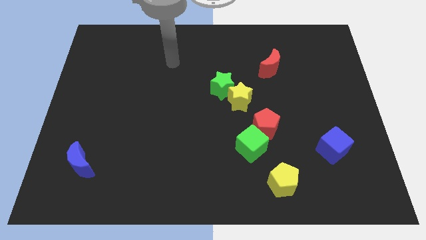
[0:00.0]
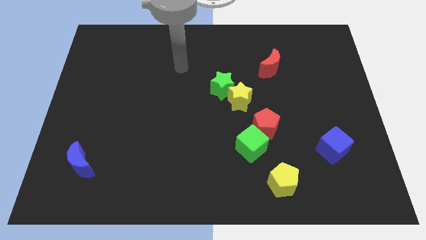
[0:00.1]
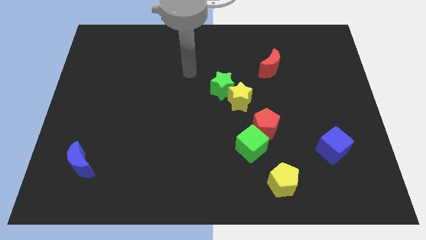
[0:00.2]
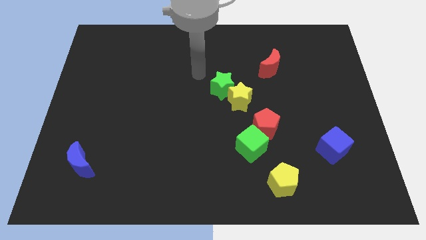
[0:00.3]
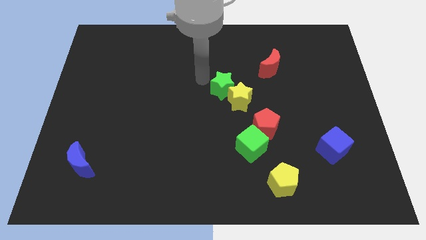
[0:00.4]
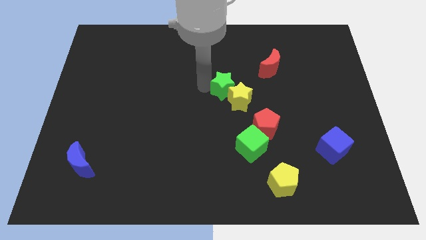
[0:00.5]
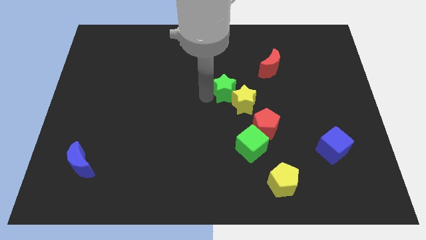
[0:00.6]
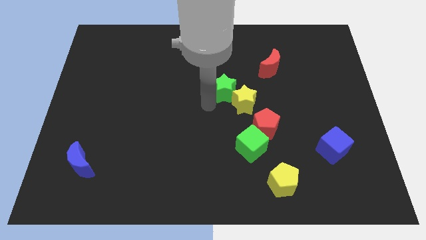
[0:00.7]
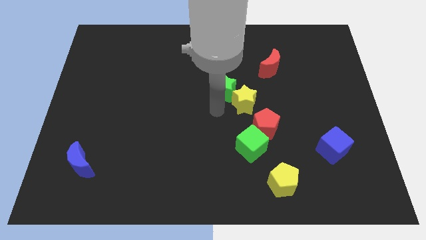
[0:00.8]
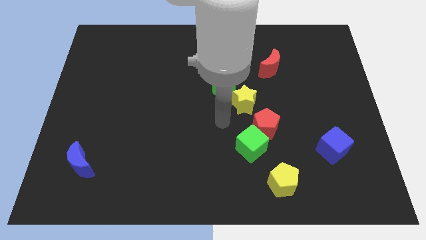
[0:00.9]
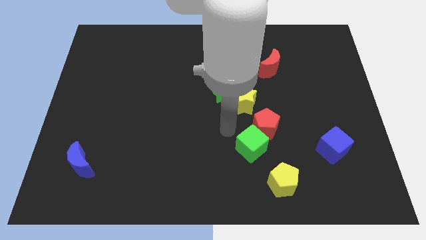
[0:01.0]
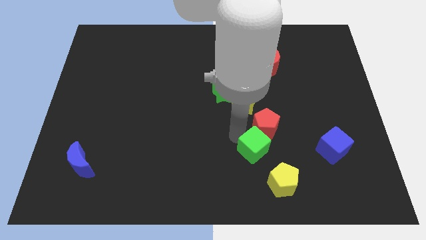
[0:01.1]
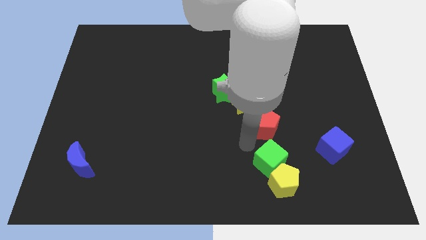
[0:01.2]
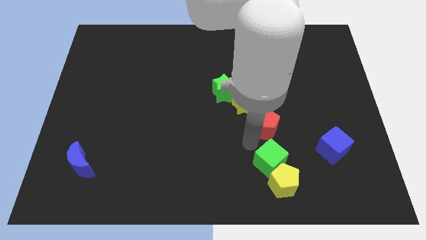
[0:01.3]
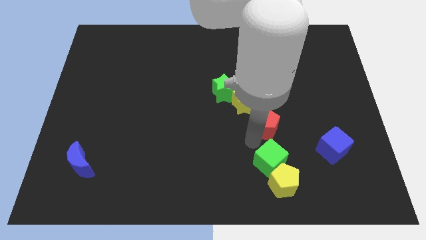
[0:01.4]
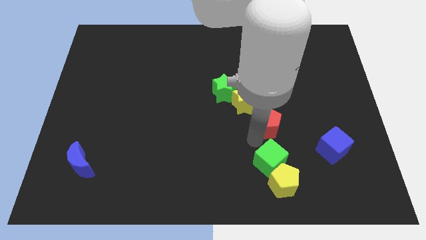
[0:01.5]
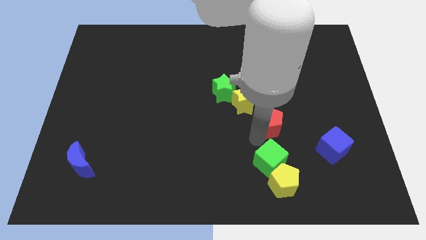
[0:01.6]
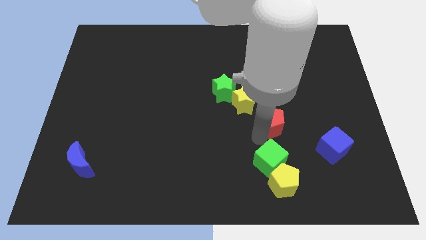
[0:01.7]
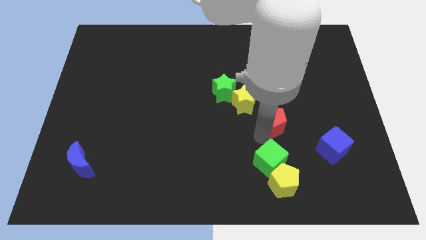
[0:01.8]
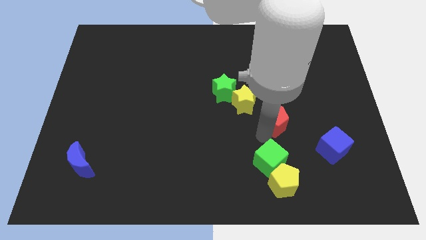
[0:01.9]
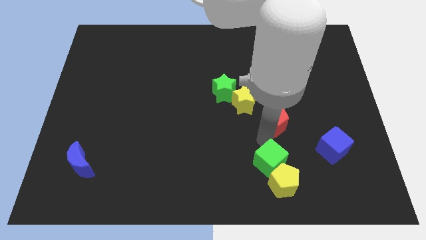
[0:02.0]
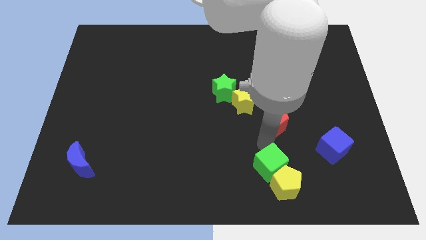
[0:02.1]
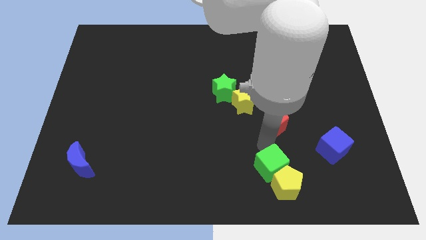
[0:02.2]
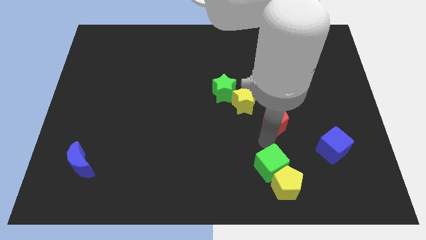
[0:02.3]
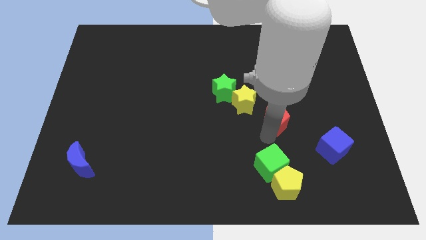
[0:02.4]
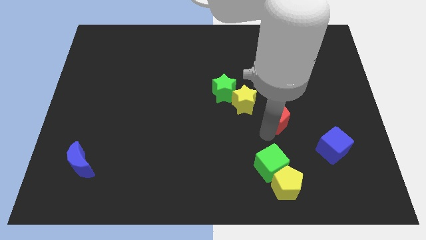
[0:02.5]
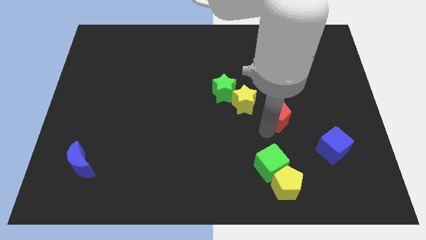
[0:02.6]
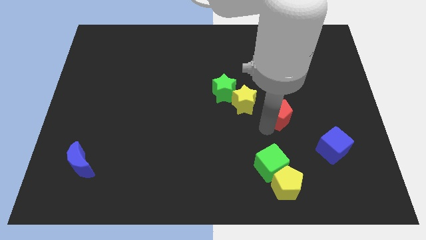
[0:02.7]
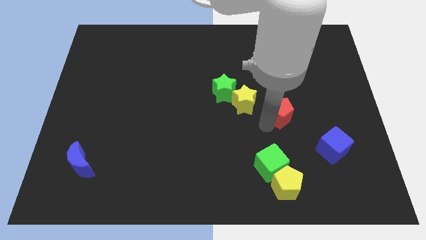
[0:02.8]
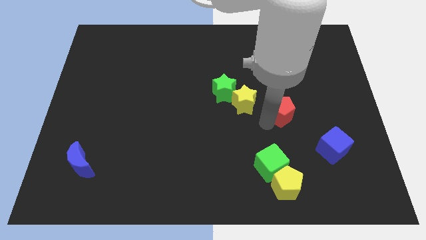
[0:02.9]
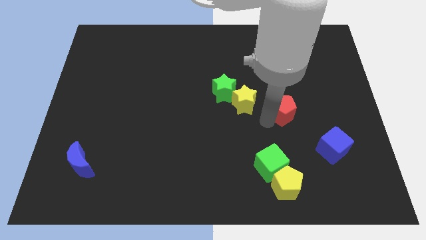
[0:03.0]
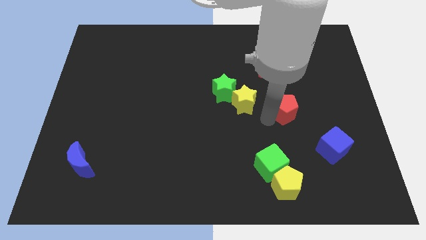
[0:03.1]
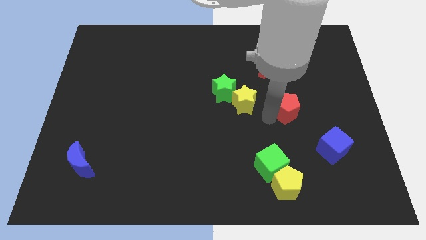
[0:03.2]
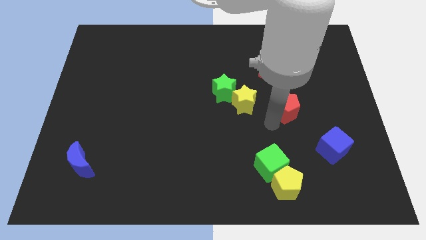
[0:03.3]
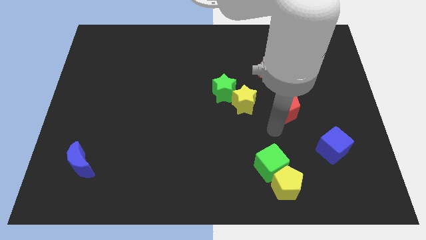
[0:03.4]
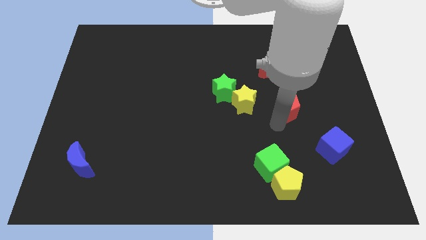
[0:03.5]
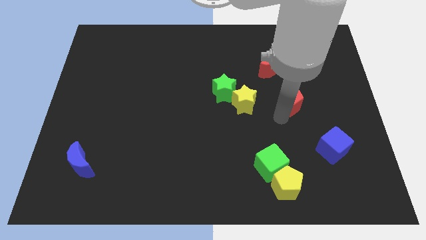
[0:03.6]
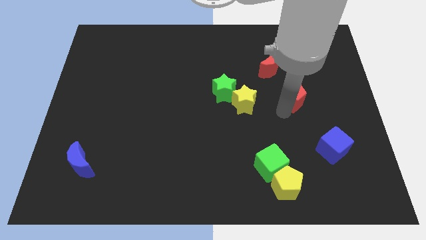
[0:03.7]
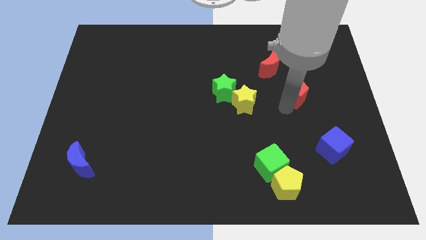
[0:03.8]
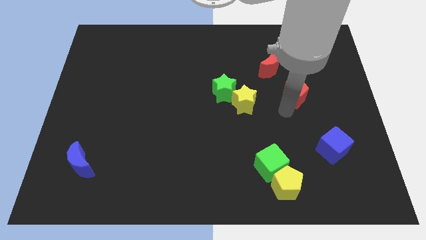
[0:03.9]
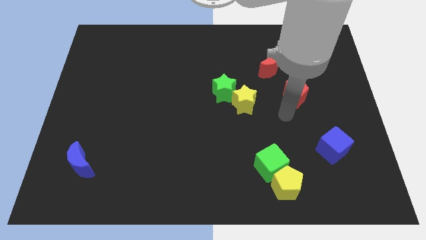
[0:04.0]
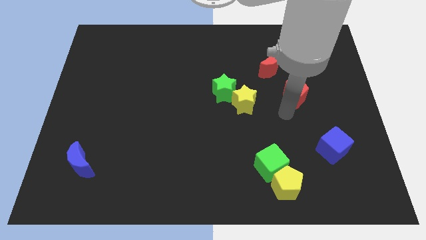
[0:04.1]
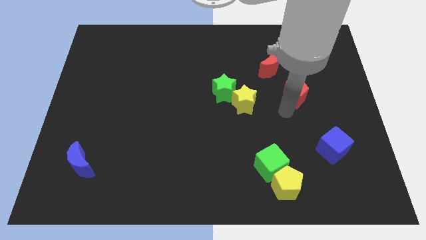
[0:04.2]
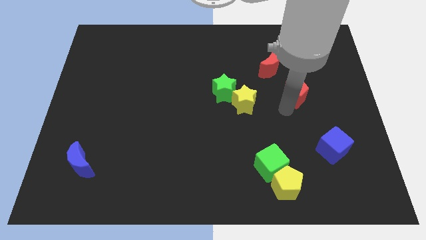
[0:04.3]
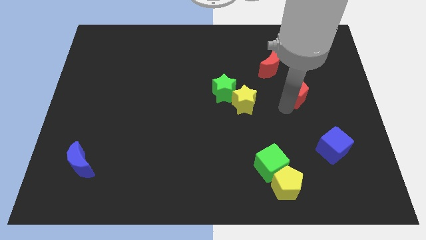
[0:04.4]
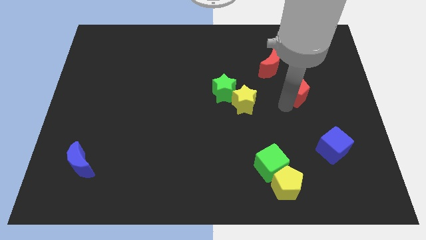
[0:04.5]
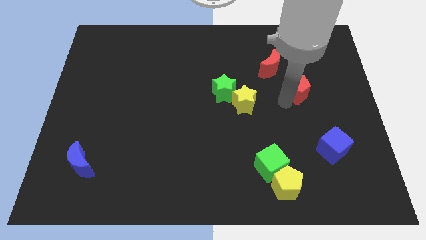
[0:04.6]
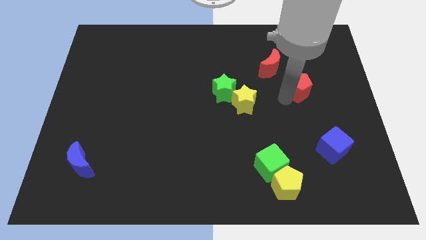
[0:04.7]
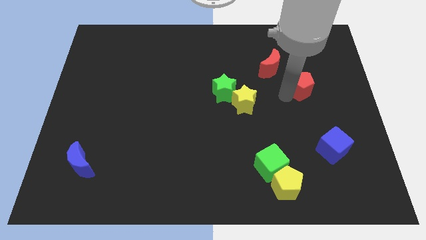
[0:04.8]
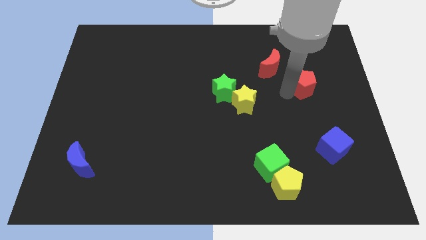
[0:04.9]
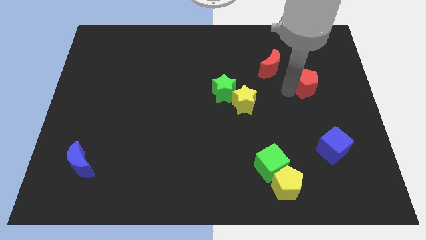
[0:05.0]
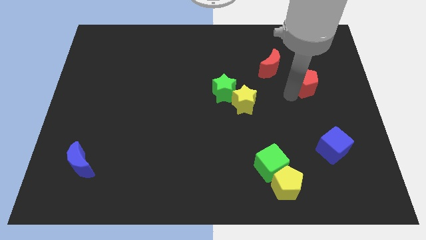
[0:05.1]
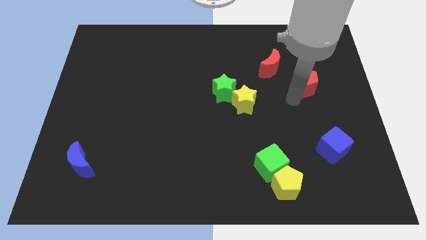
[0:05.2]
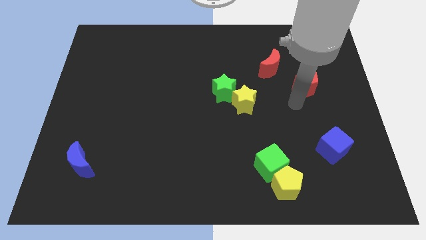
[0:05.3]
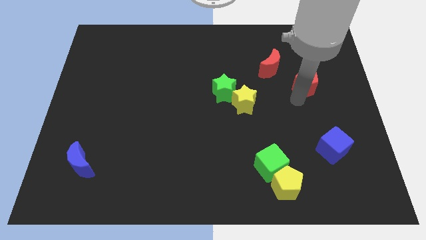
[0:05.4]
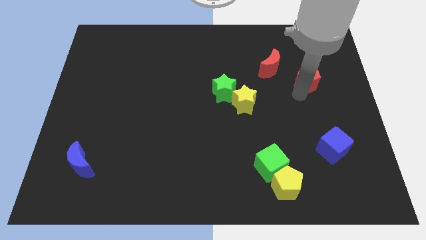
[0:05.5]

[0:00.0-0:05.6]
move the red pentagon just right of the red moon

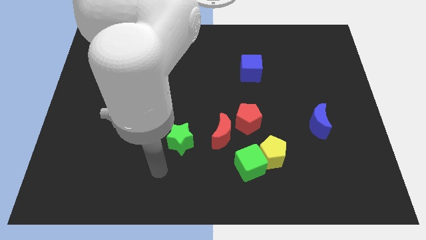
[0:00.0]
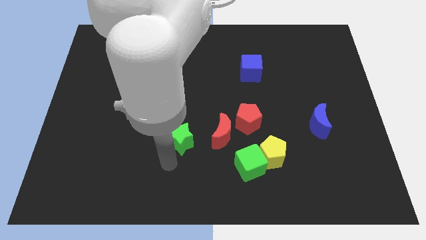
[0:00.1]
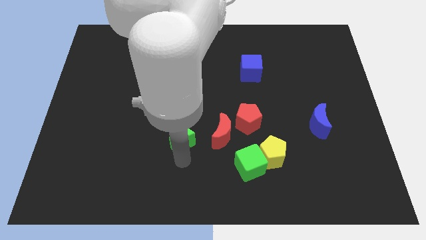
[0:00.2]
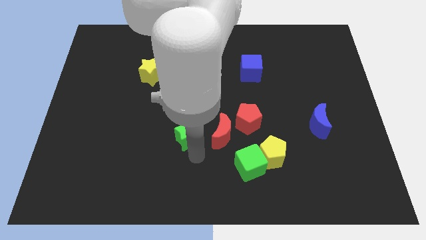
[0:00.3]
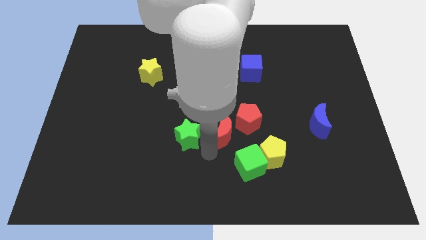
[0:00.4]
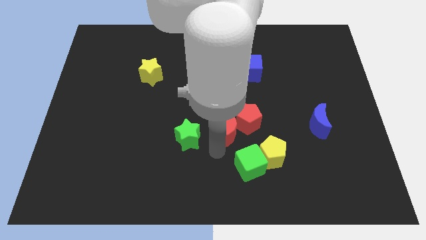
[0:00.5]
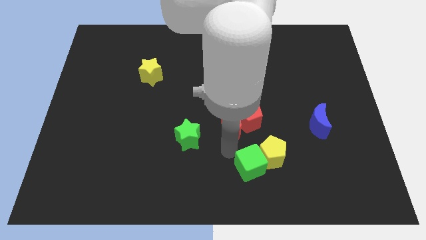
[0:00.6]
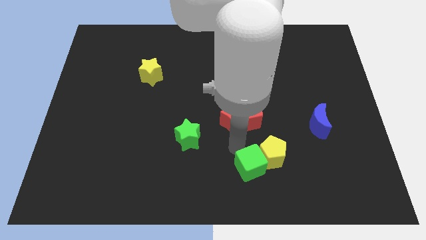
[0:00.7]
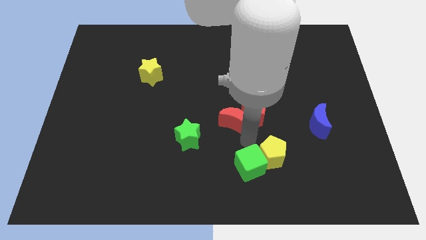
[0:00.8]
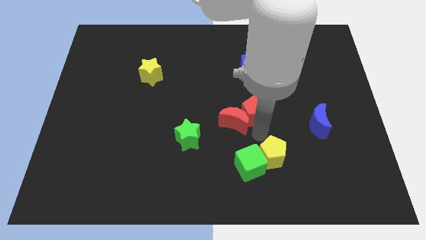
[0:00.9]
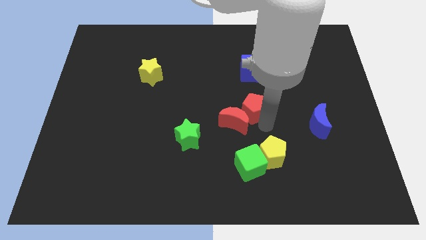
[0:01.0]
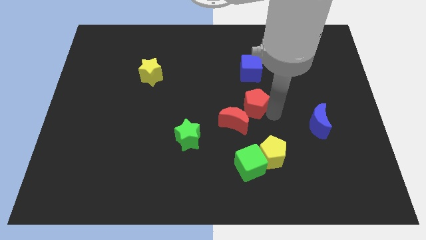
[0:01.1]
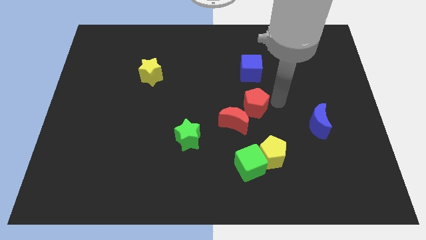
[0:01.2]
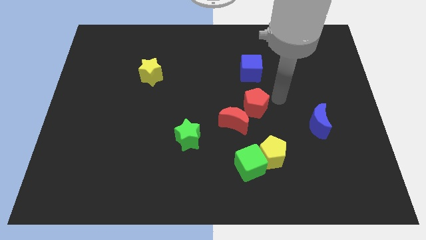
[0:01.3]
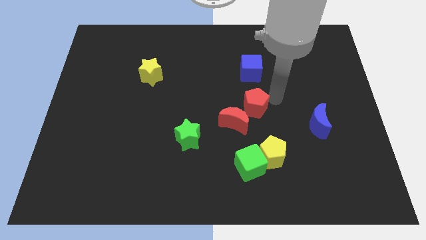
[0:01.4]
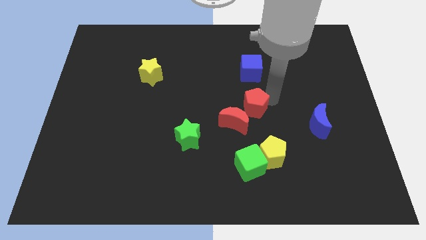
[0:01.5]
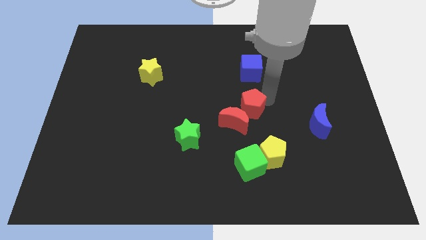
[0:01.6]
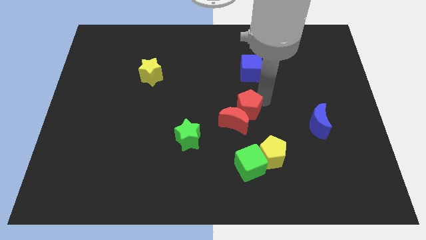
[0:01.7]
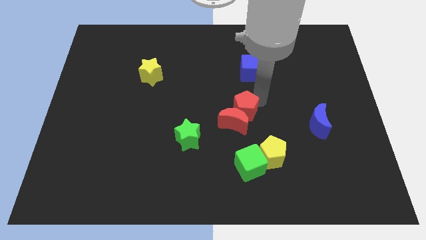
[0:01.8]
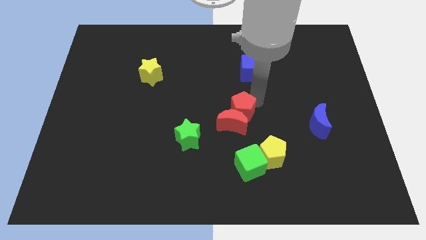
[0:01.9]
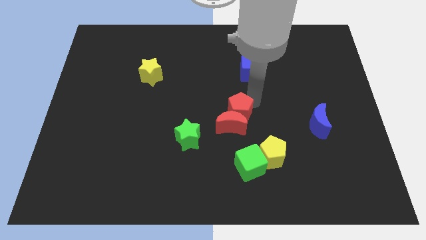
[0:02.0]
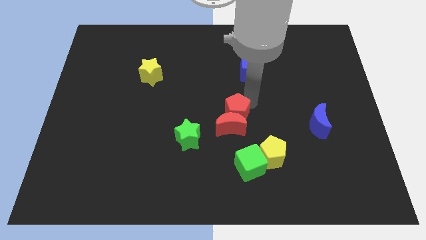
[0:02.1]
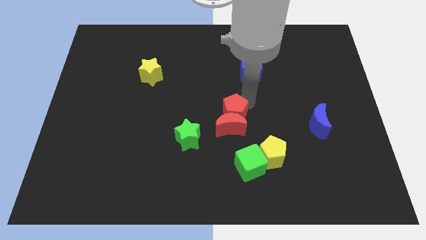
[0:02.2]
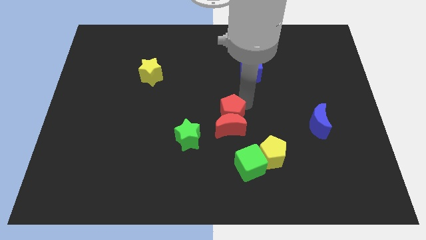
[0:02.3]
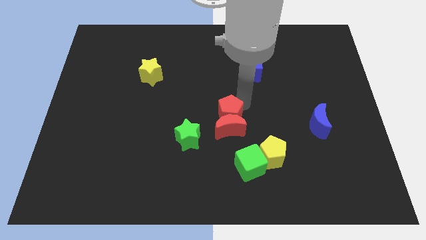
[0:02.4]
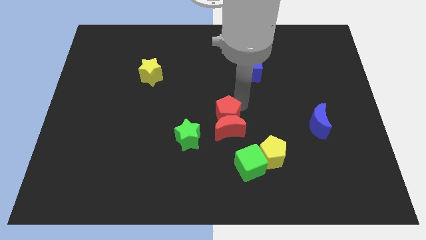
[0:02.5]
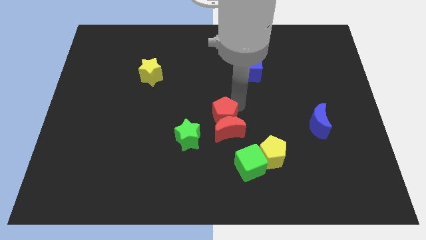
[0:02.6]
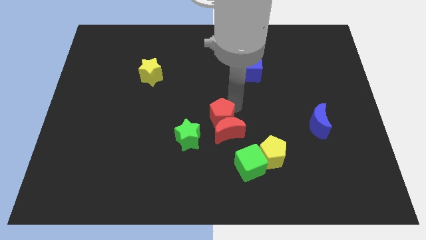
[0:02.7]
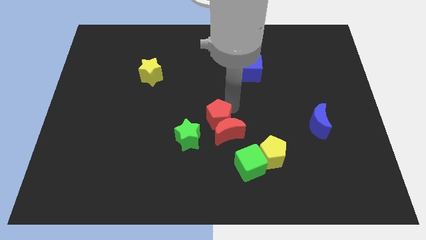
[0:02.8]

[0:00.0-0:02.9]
move the red pentagon to the left of the red moon
